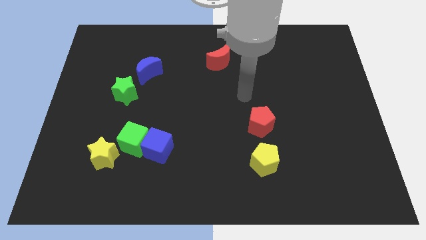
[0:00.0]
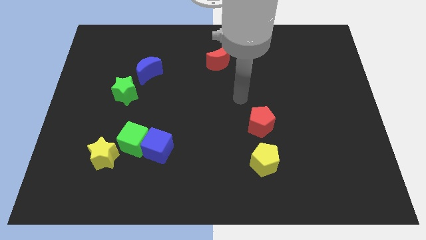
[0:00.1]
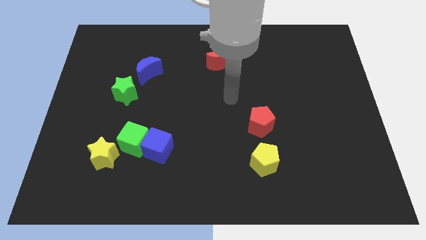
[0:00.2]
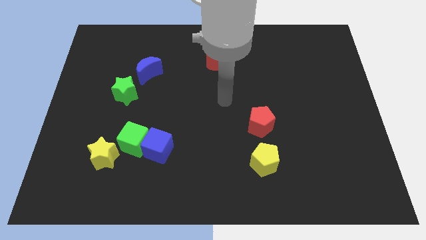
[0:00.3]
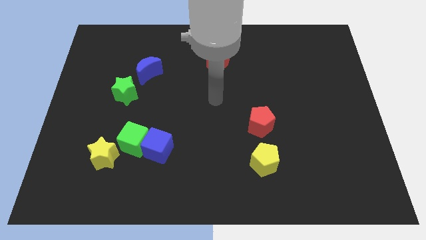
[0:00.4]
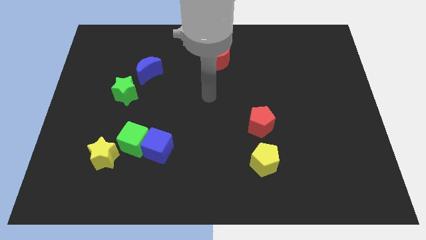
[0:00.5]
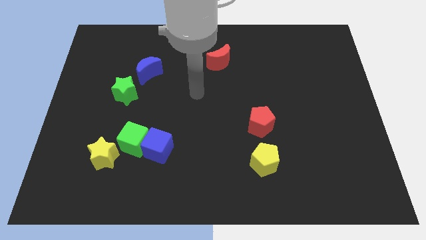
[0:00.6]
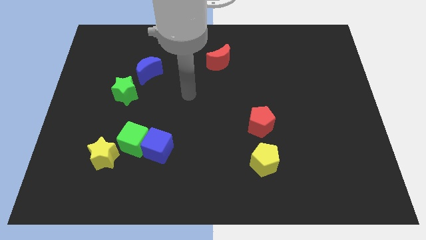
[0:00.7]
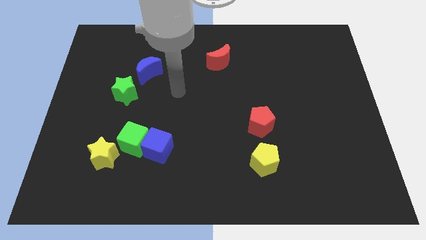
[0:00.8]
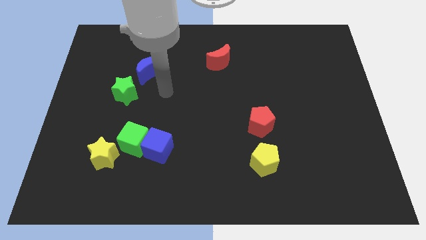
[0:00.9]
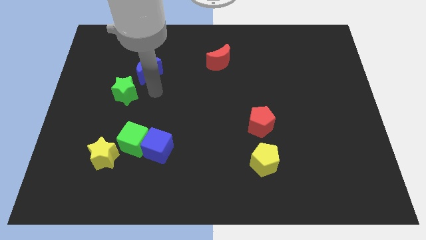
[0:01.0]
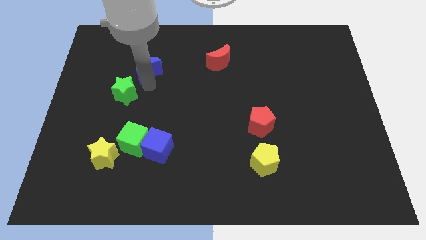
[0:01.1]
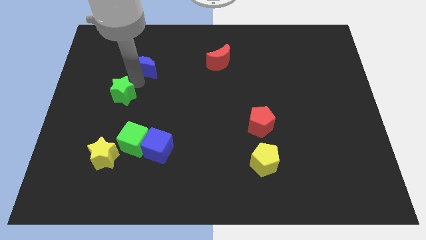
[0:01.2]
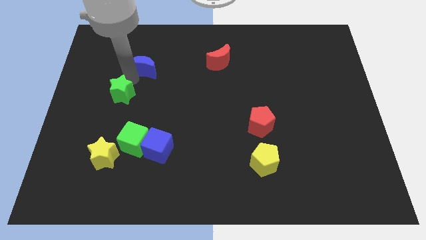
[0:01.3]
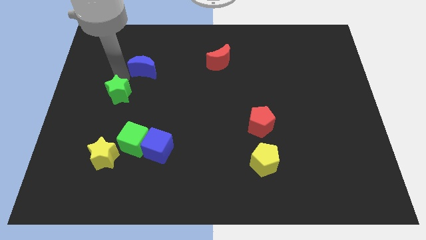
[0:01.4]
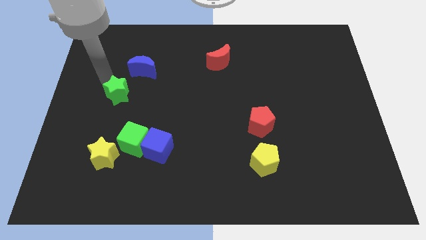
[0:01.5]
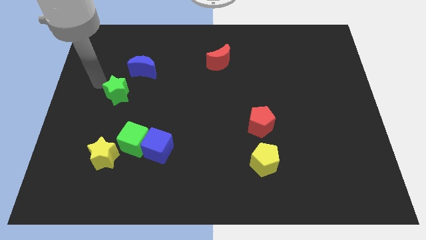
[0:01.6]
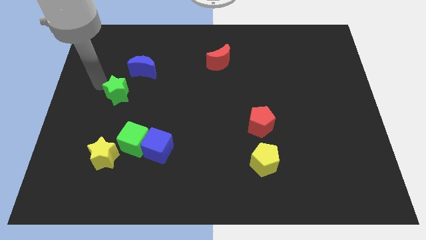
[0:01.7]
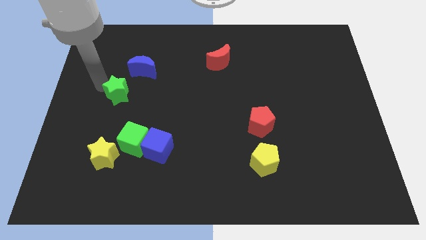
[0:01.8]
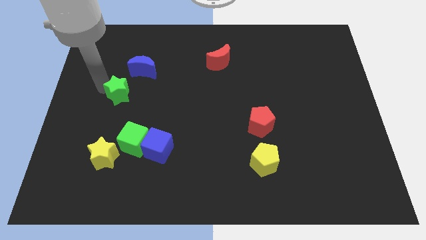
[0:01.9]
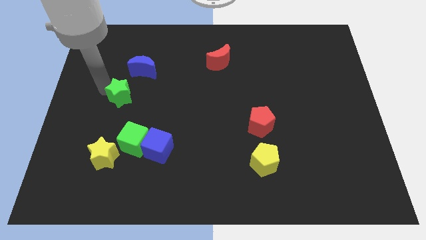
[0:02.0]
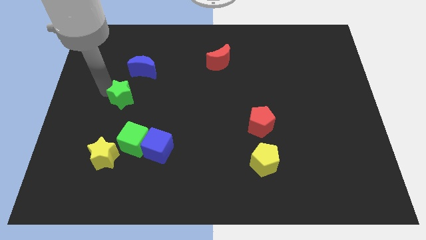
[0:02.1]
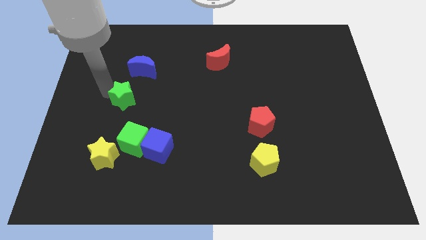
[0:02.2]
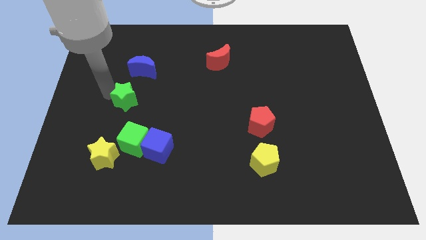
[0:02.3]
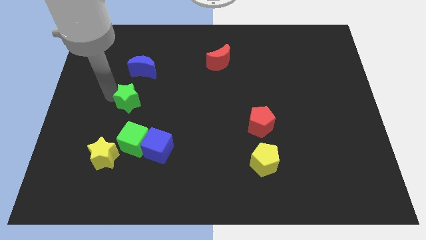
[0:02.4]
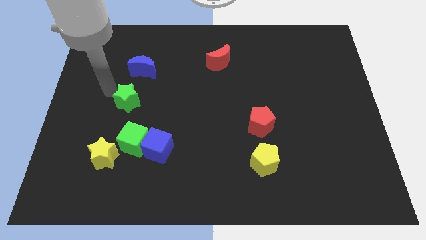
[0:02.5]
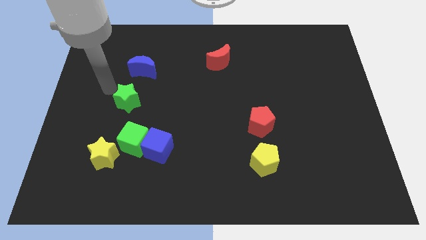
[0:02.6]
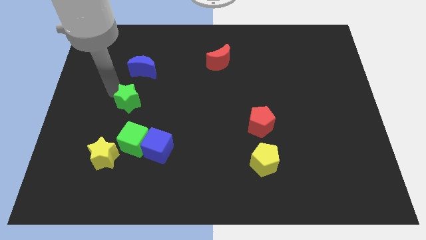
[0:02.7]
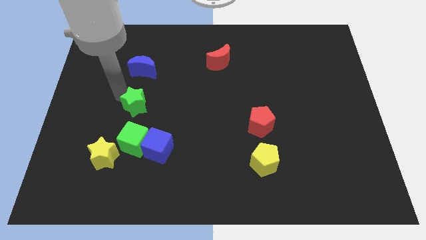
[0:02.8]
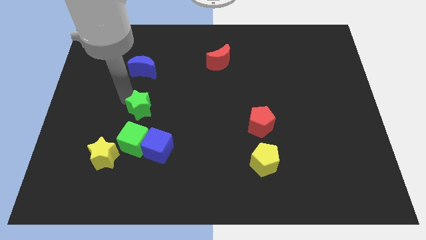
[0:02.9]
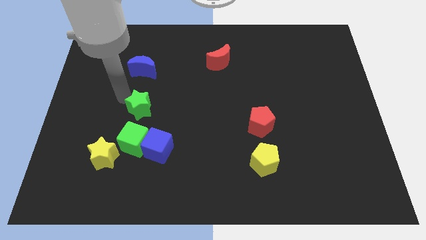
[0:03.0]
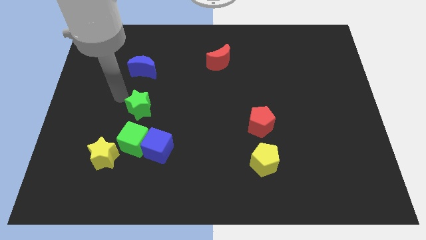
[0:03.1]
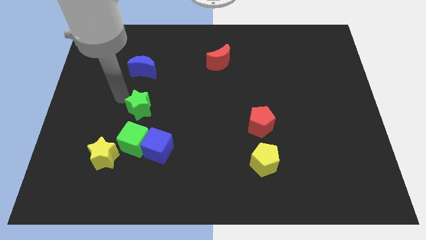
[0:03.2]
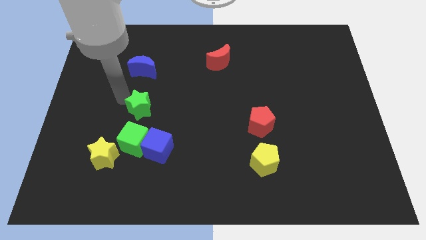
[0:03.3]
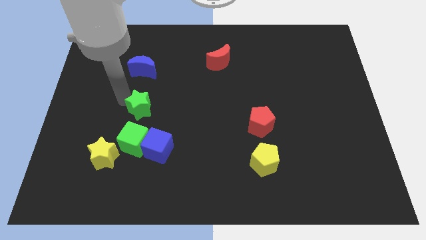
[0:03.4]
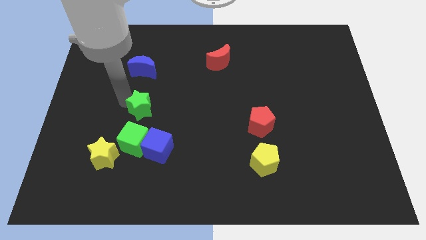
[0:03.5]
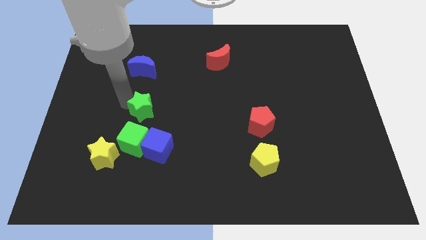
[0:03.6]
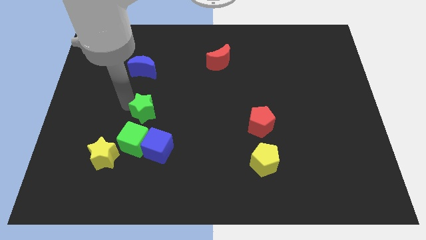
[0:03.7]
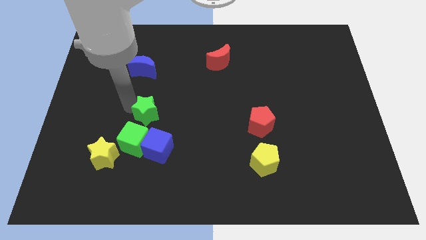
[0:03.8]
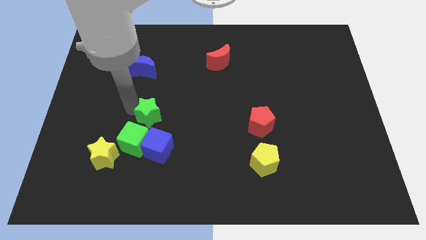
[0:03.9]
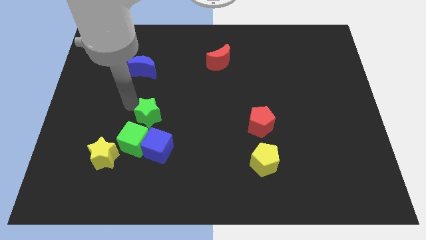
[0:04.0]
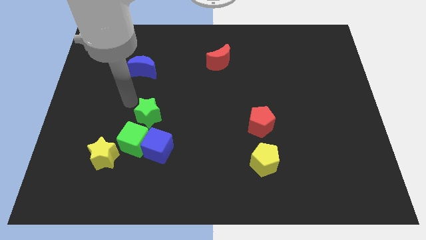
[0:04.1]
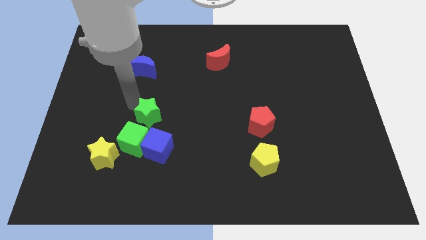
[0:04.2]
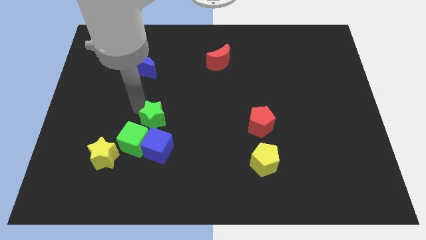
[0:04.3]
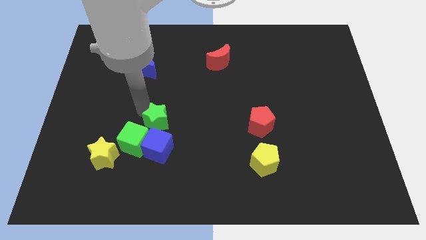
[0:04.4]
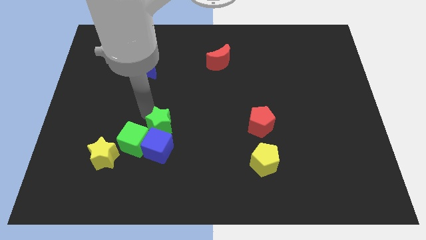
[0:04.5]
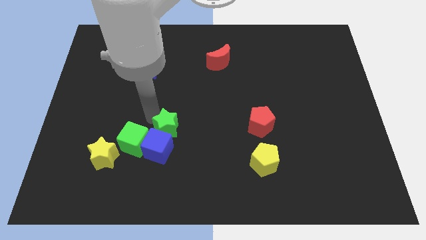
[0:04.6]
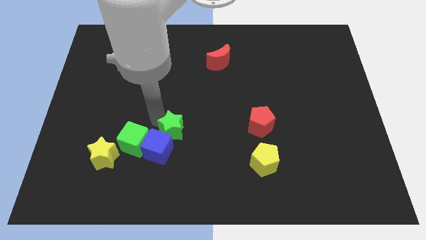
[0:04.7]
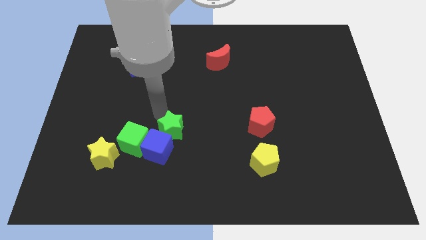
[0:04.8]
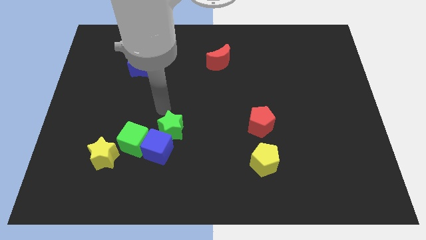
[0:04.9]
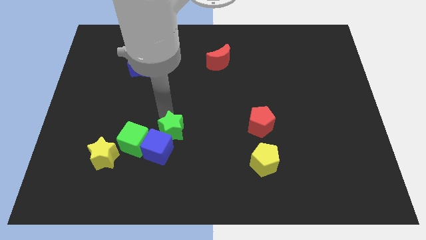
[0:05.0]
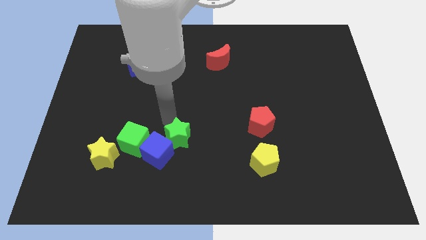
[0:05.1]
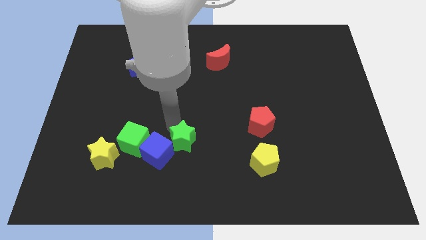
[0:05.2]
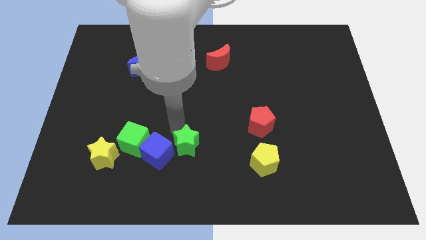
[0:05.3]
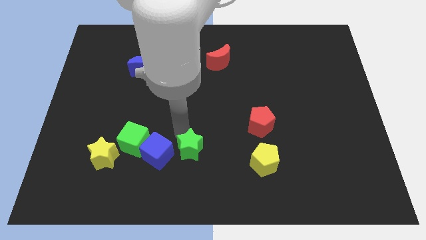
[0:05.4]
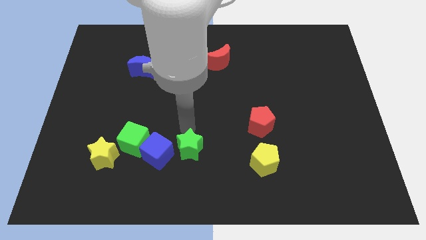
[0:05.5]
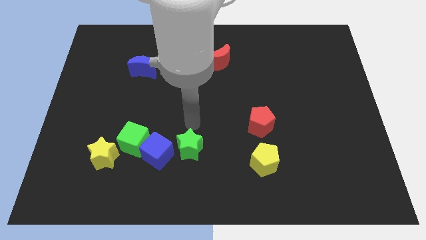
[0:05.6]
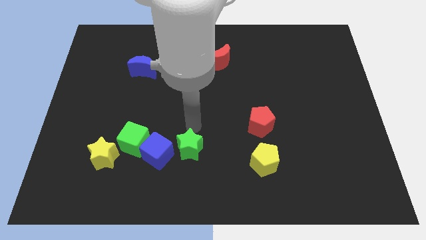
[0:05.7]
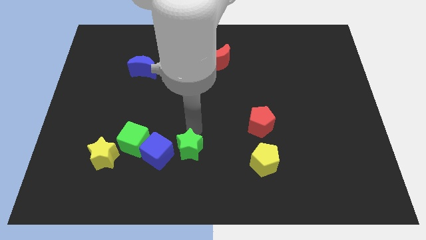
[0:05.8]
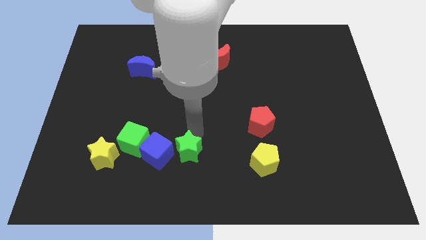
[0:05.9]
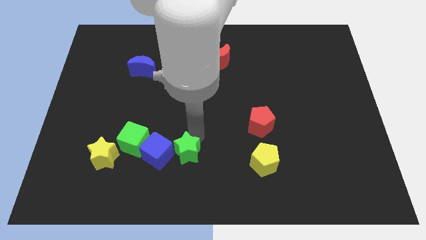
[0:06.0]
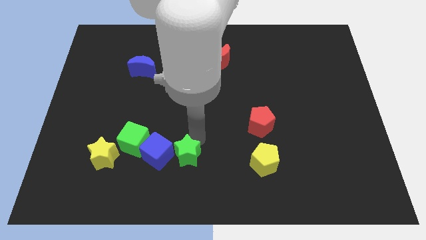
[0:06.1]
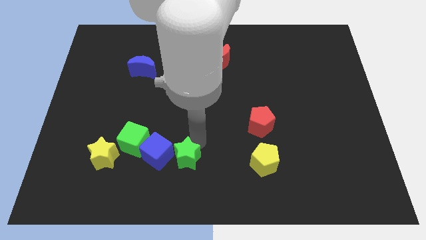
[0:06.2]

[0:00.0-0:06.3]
slide the green star to the bottom side

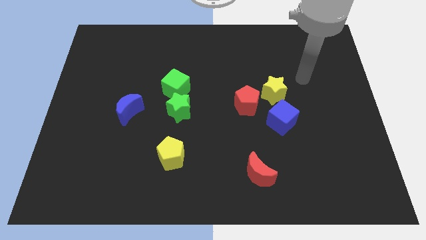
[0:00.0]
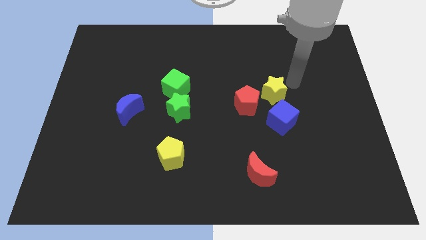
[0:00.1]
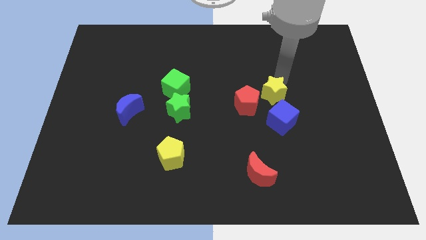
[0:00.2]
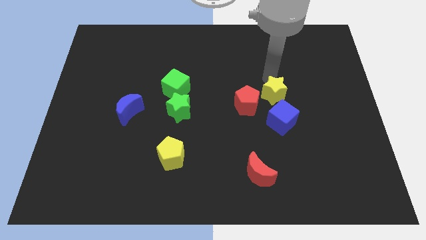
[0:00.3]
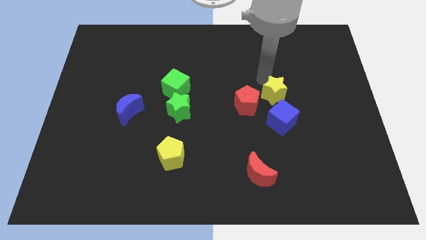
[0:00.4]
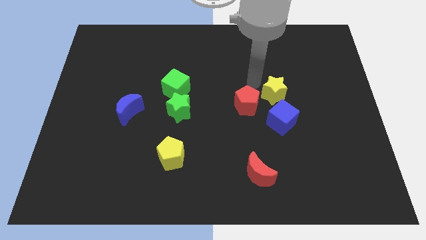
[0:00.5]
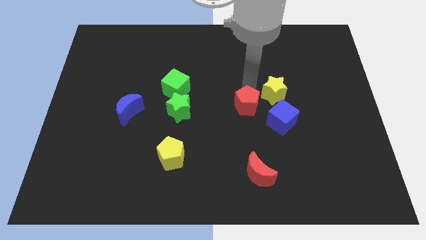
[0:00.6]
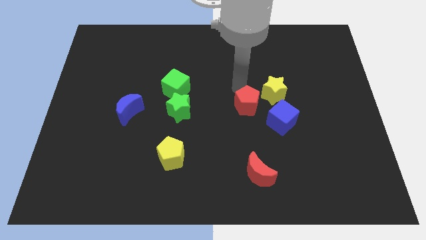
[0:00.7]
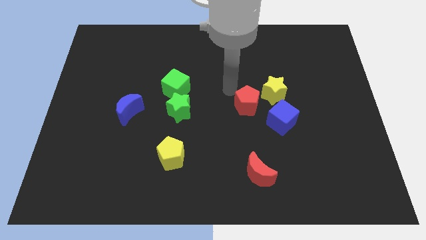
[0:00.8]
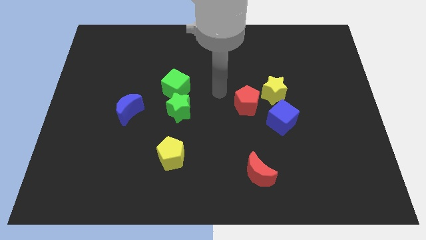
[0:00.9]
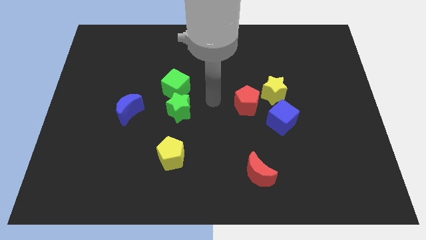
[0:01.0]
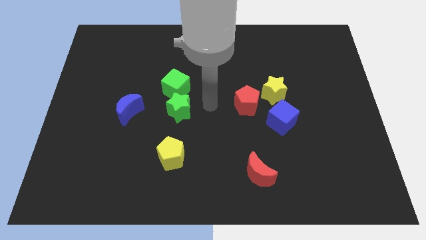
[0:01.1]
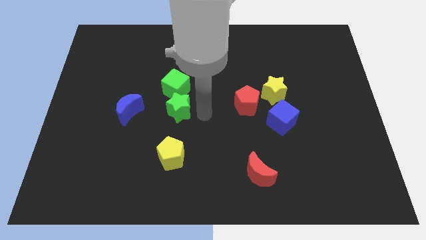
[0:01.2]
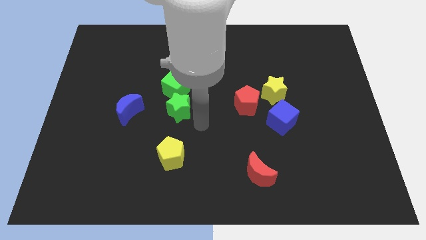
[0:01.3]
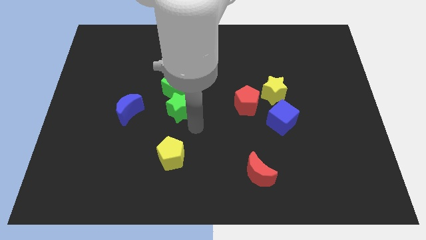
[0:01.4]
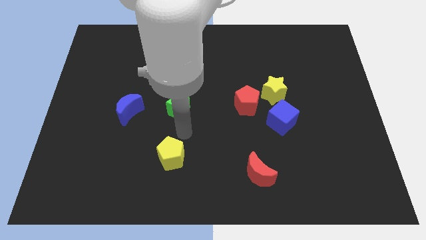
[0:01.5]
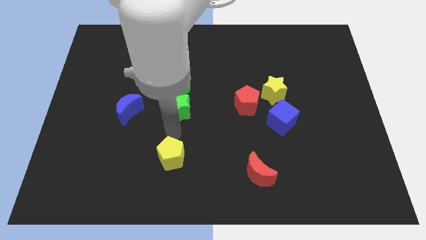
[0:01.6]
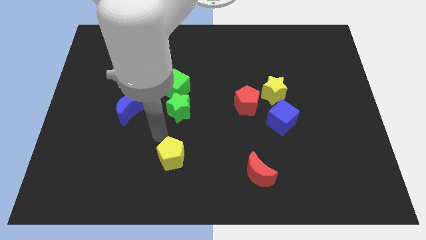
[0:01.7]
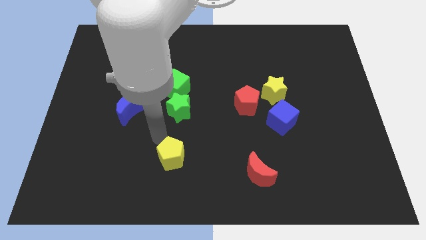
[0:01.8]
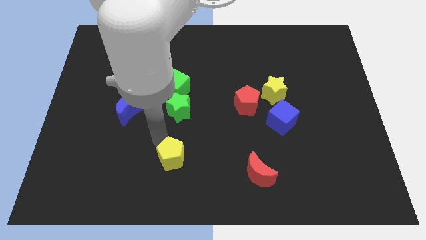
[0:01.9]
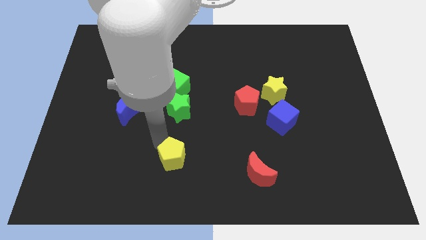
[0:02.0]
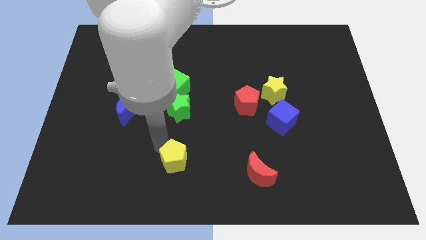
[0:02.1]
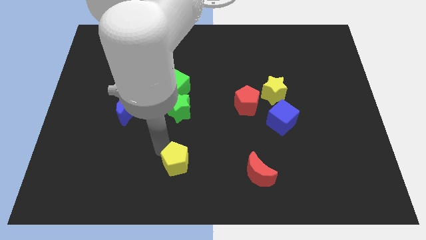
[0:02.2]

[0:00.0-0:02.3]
put the yellow pentagon to the bottom side
